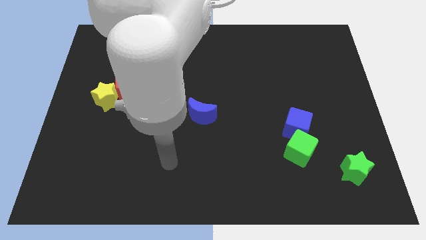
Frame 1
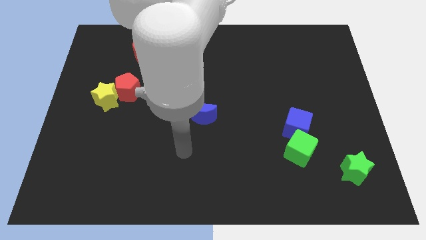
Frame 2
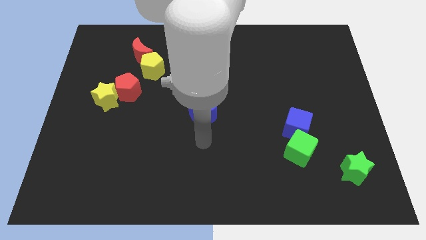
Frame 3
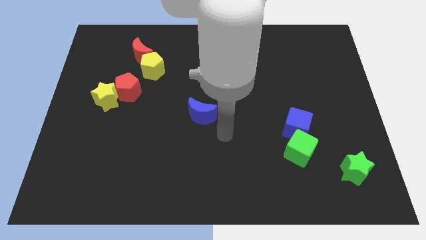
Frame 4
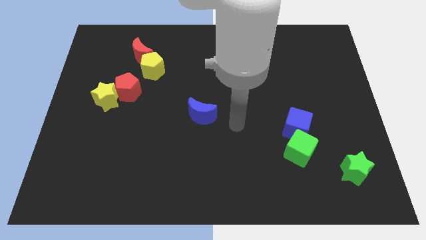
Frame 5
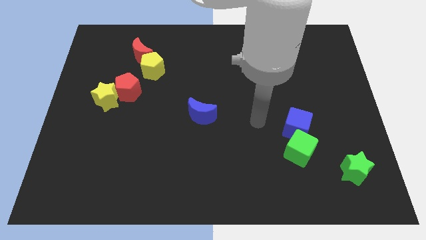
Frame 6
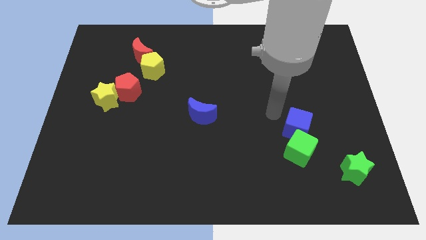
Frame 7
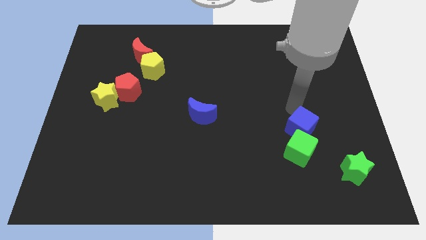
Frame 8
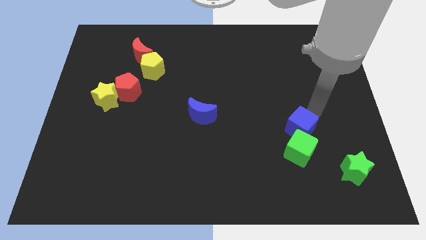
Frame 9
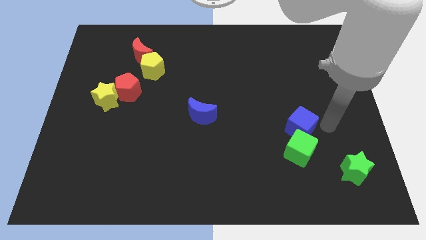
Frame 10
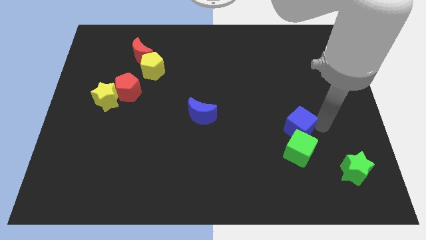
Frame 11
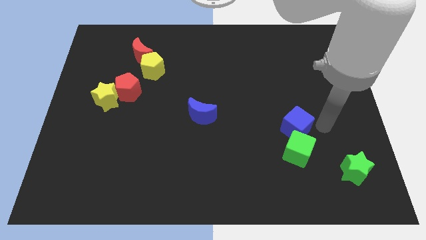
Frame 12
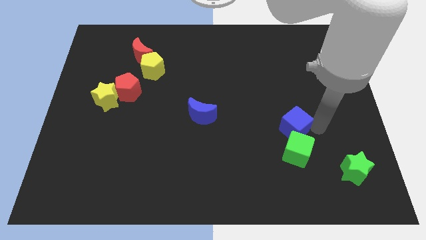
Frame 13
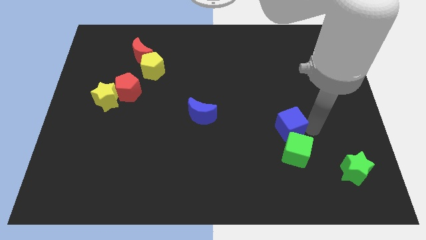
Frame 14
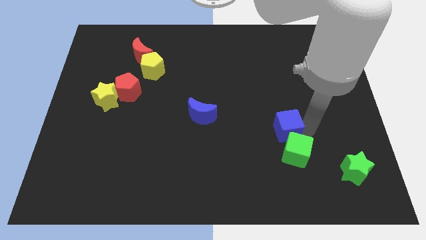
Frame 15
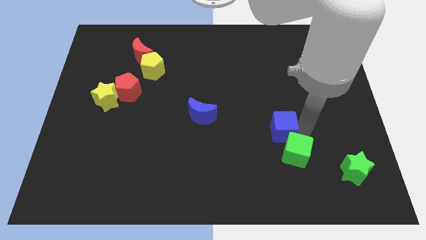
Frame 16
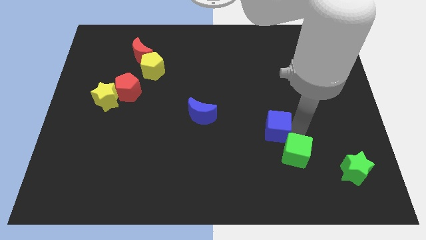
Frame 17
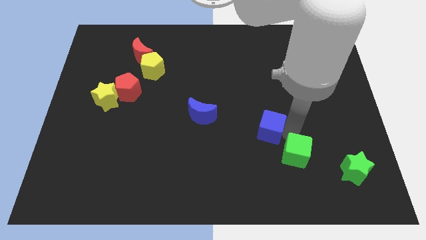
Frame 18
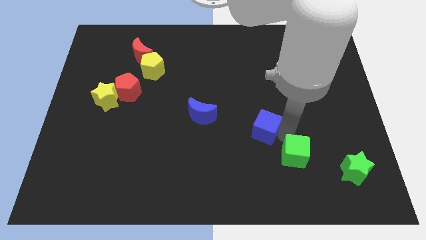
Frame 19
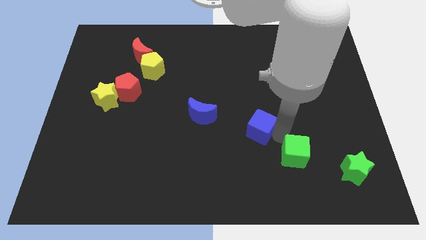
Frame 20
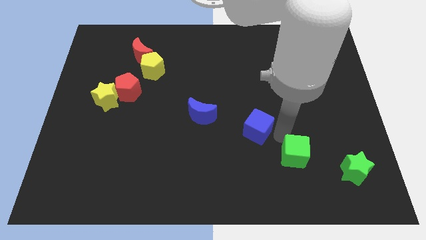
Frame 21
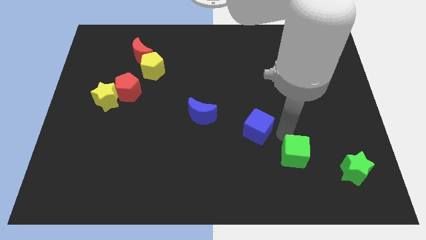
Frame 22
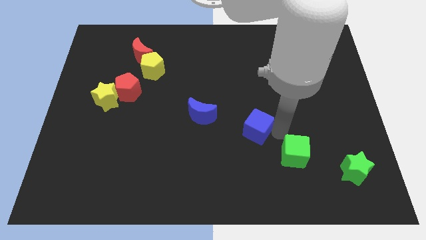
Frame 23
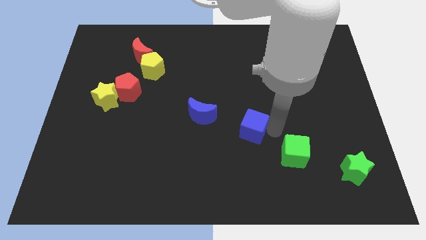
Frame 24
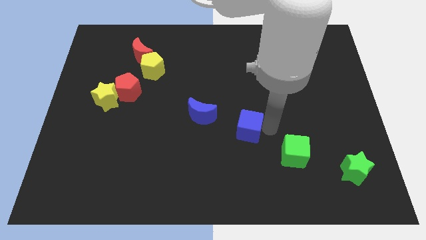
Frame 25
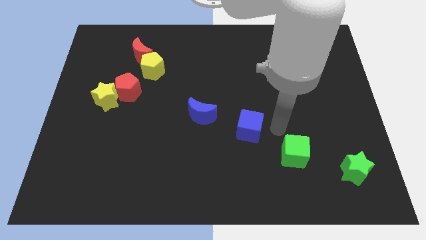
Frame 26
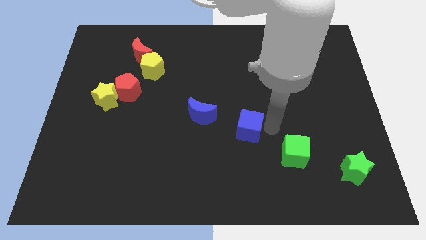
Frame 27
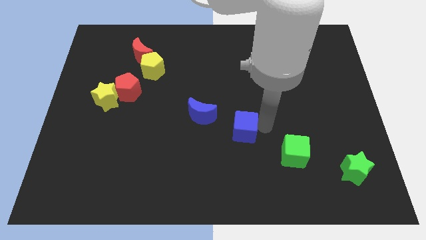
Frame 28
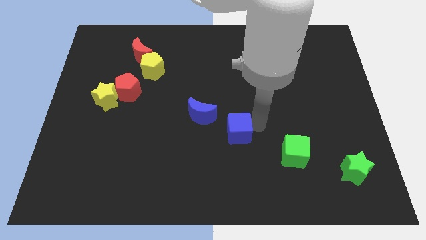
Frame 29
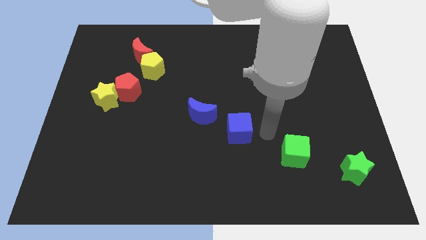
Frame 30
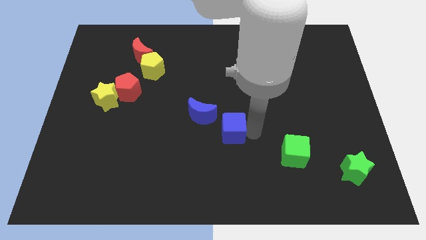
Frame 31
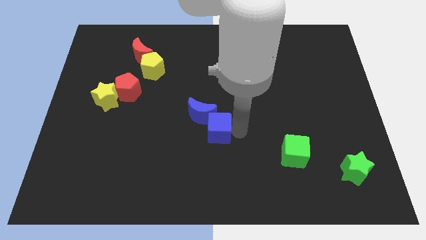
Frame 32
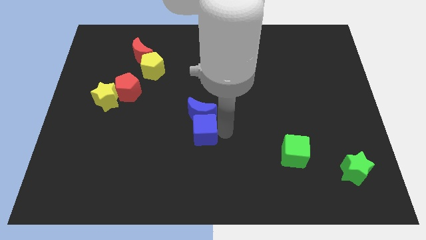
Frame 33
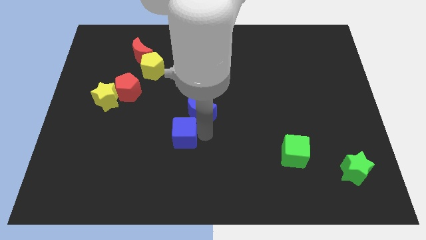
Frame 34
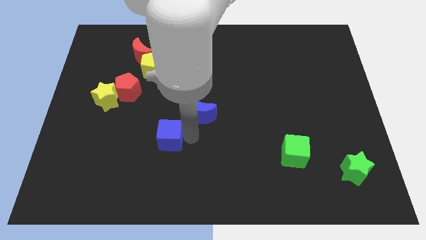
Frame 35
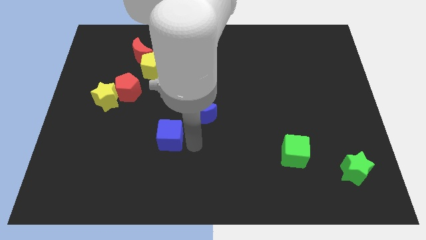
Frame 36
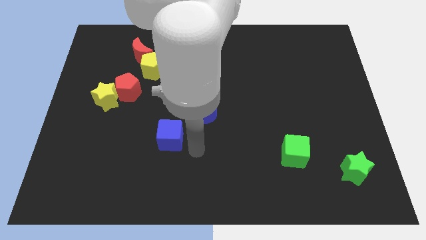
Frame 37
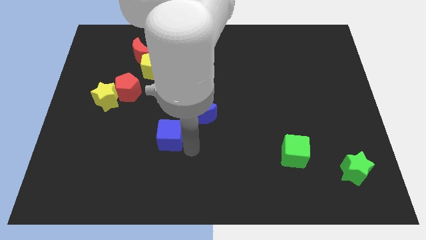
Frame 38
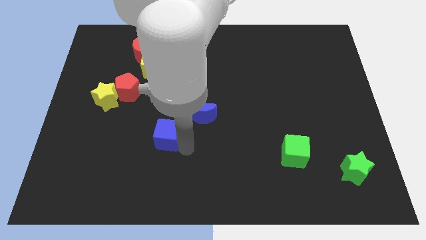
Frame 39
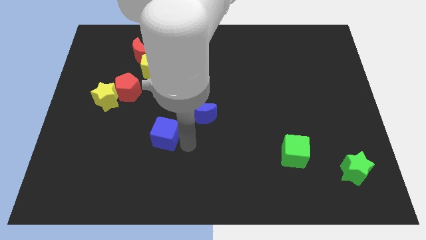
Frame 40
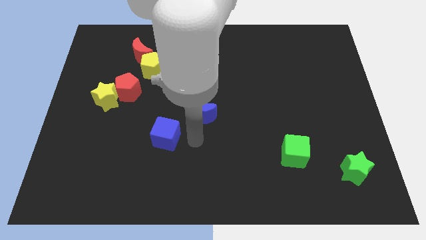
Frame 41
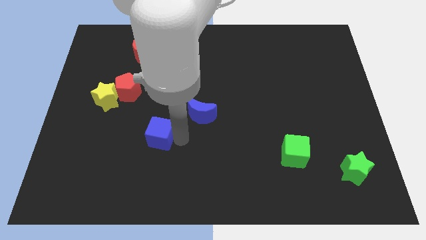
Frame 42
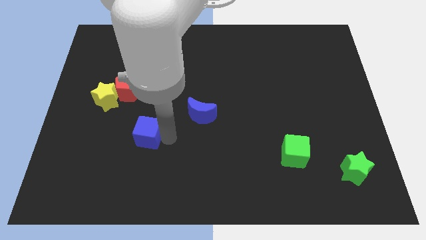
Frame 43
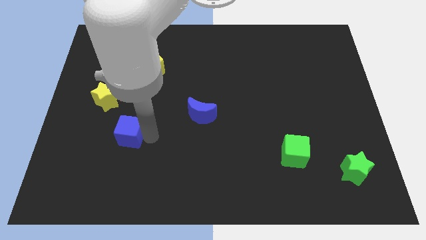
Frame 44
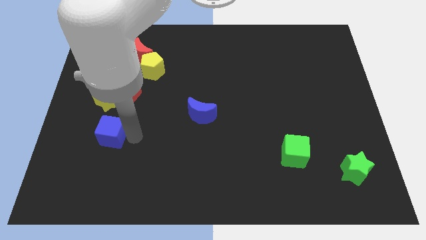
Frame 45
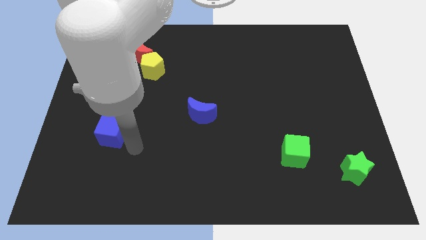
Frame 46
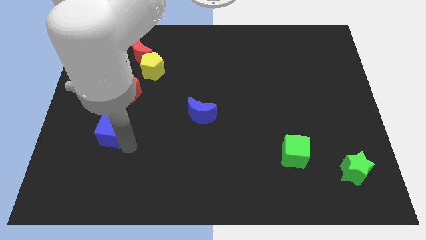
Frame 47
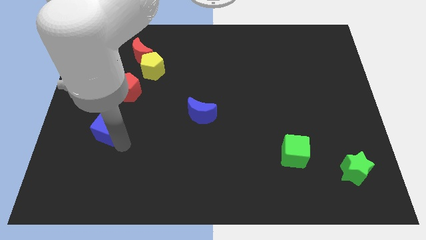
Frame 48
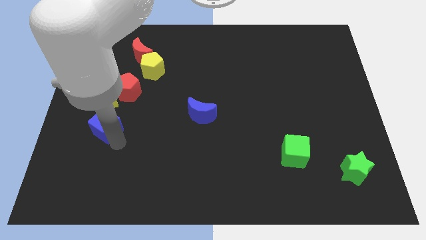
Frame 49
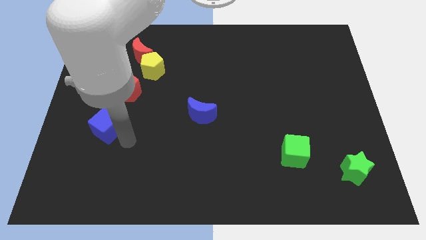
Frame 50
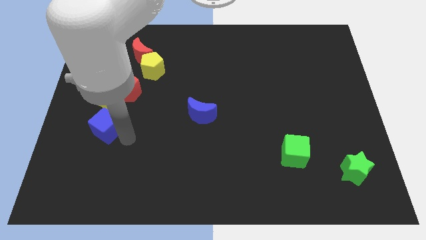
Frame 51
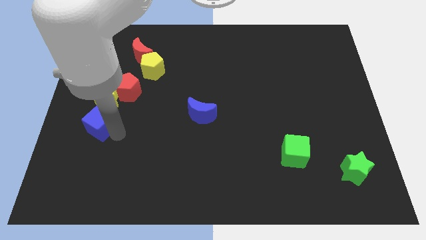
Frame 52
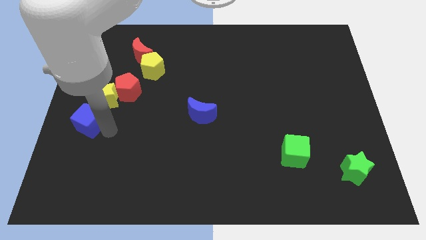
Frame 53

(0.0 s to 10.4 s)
move the blue cube to the center left
